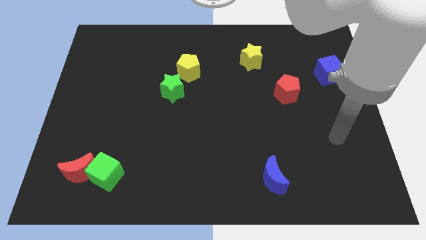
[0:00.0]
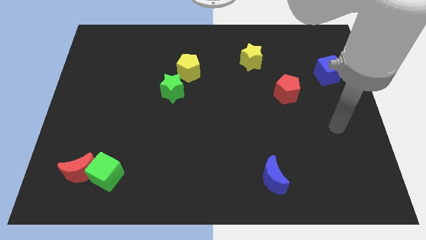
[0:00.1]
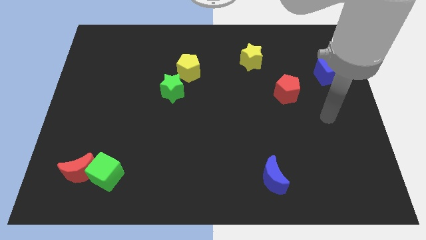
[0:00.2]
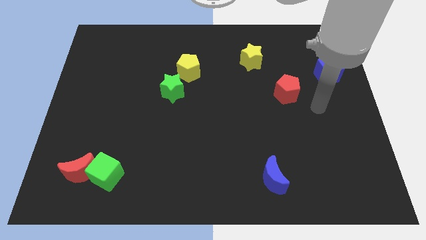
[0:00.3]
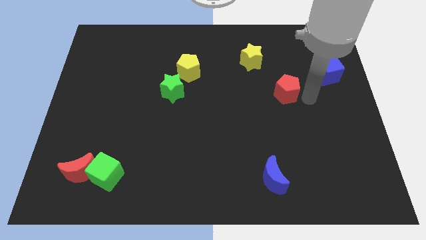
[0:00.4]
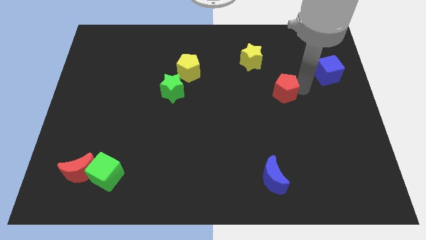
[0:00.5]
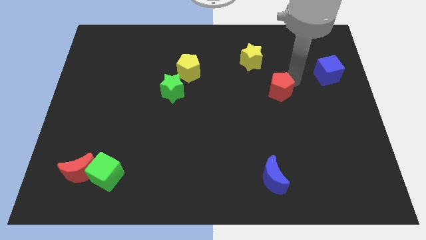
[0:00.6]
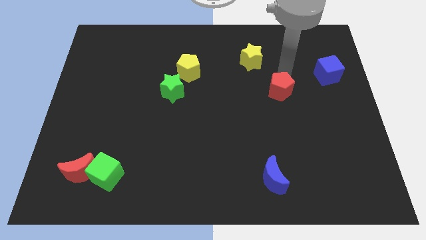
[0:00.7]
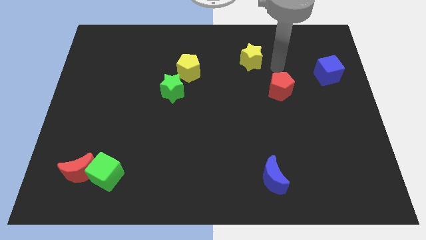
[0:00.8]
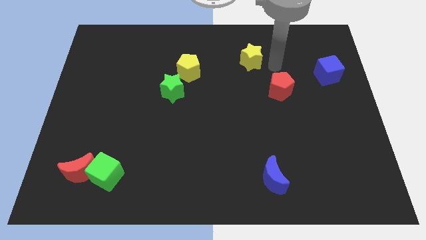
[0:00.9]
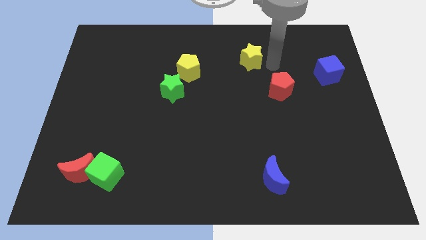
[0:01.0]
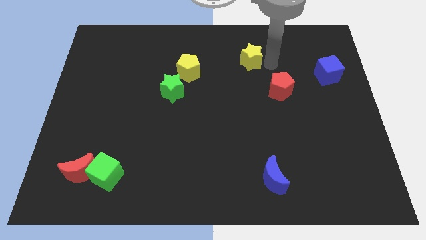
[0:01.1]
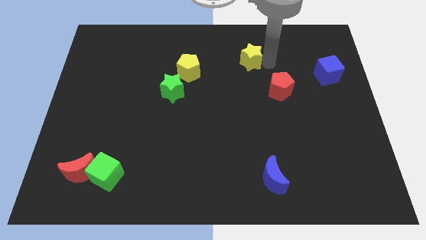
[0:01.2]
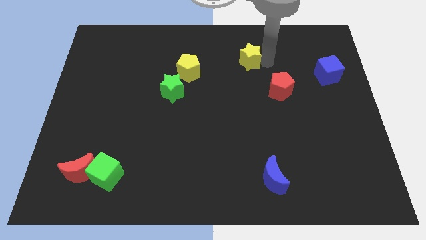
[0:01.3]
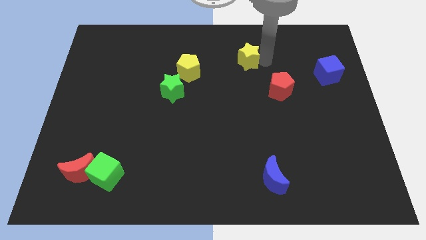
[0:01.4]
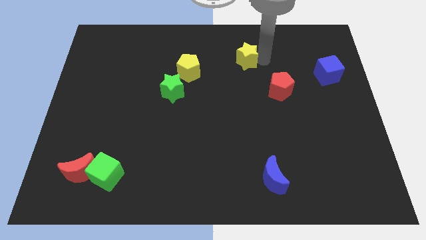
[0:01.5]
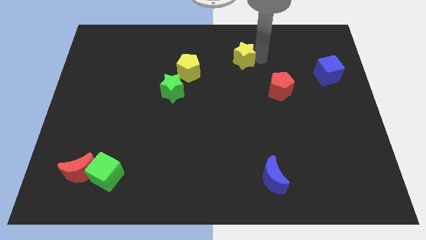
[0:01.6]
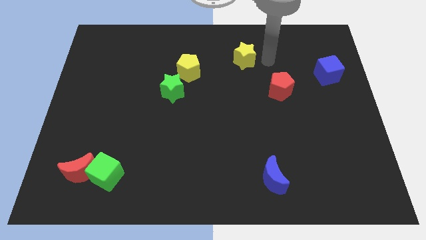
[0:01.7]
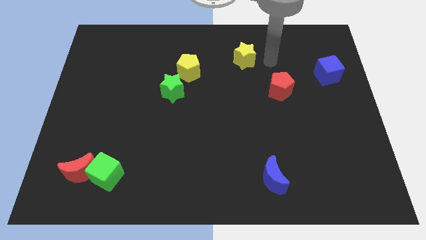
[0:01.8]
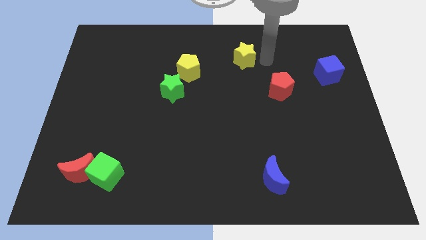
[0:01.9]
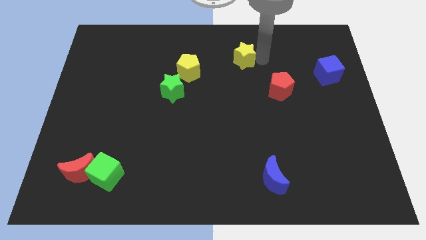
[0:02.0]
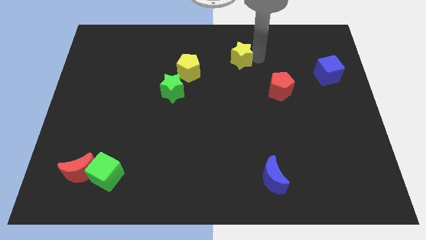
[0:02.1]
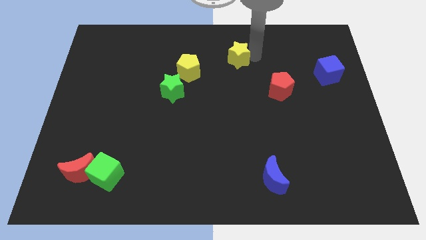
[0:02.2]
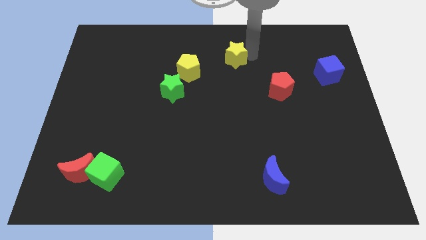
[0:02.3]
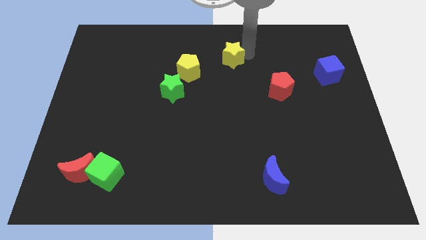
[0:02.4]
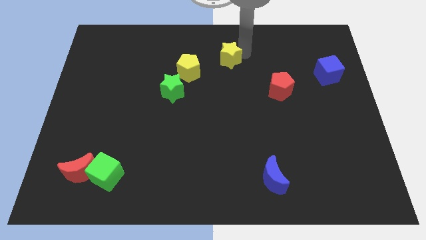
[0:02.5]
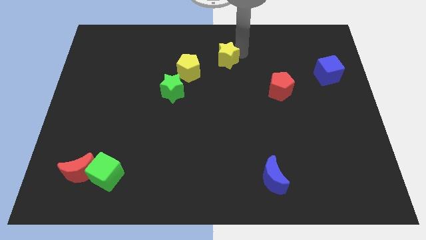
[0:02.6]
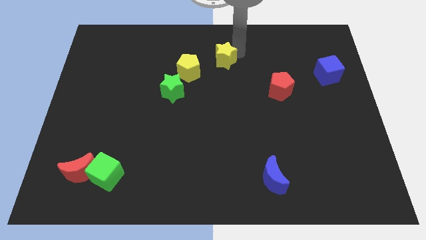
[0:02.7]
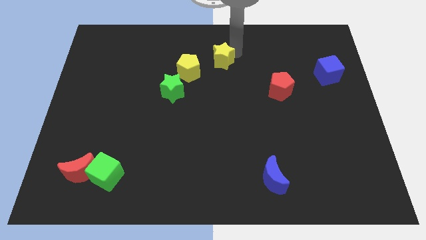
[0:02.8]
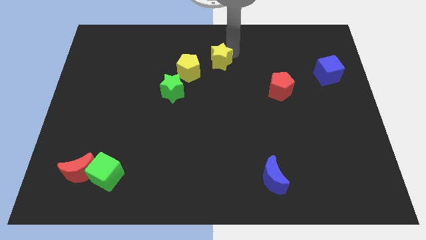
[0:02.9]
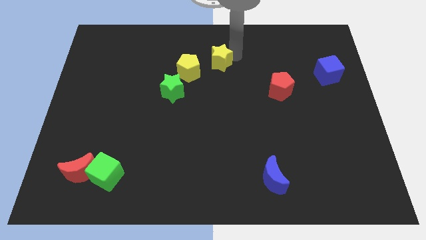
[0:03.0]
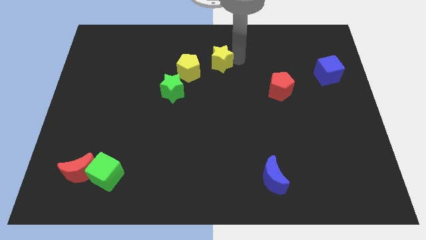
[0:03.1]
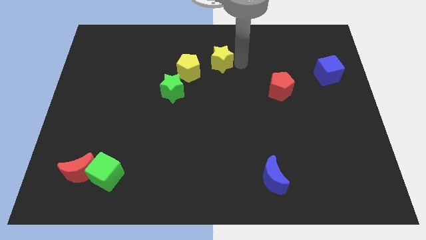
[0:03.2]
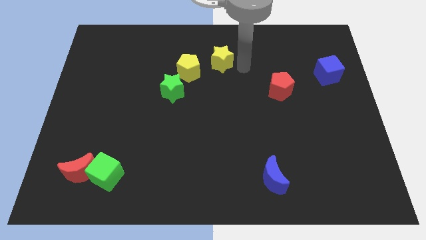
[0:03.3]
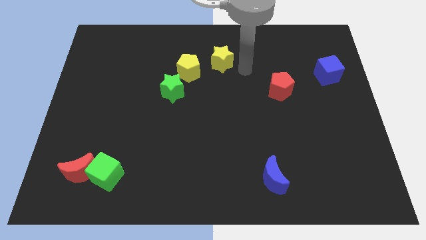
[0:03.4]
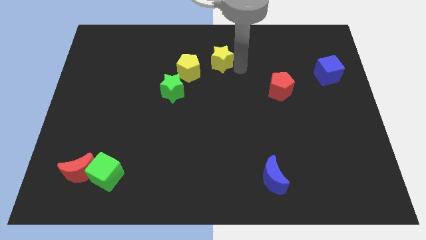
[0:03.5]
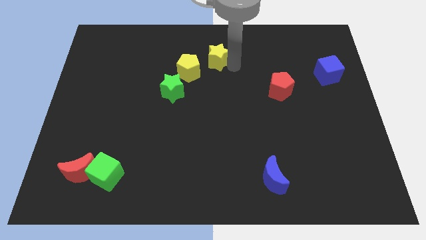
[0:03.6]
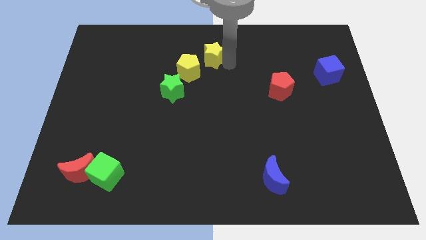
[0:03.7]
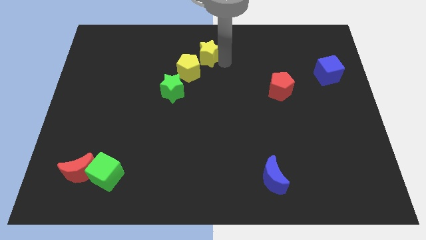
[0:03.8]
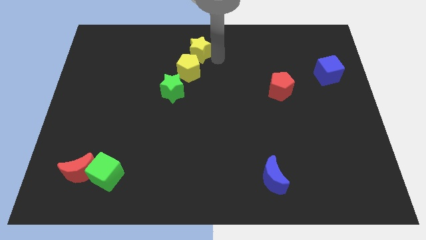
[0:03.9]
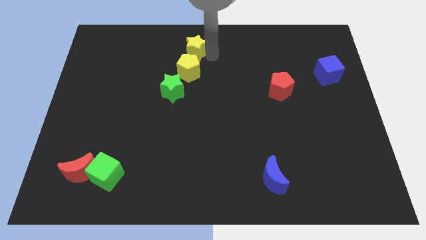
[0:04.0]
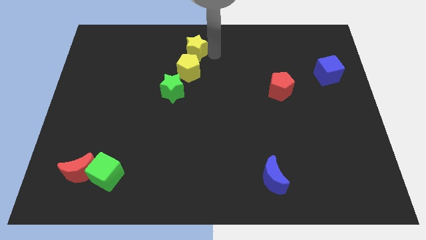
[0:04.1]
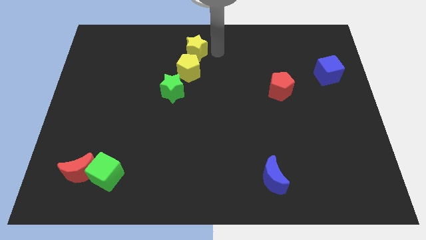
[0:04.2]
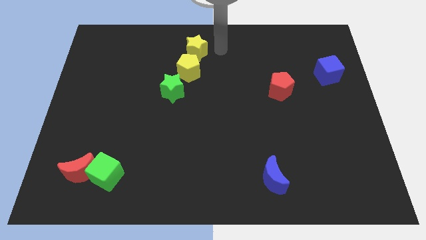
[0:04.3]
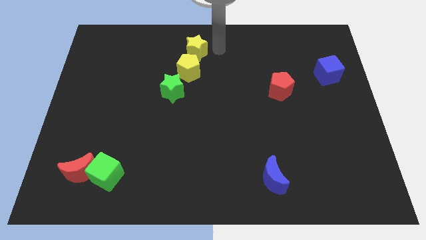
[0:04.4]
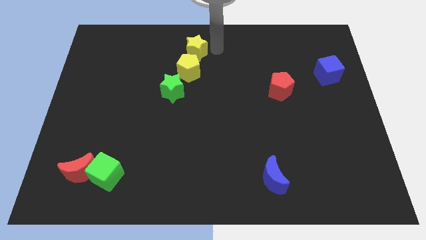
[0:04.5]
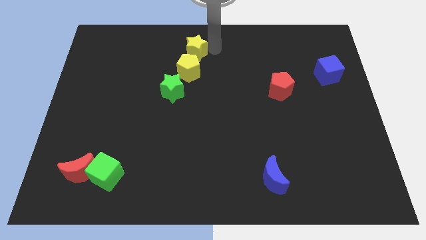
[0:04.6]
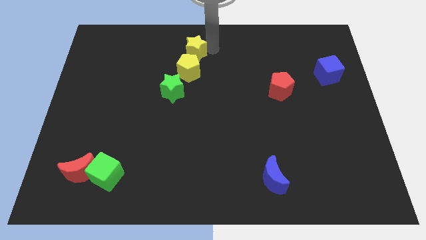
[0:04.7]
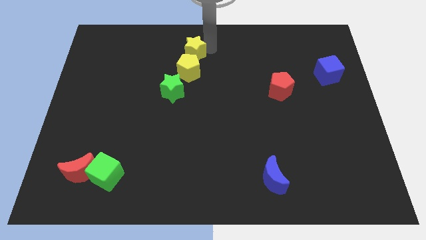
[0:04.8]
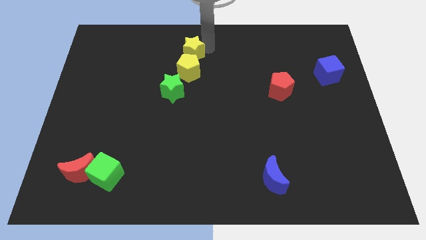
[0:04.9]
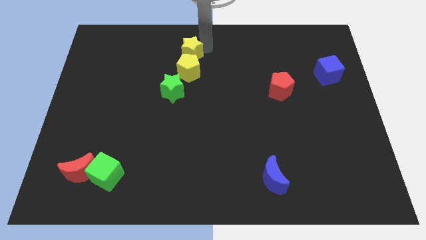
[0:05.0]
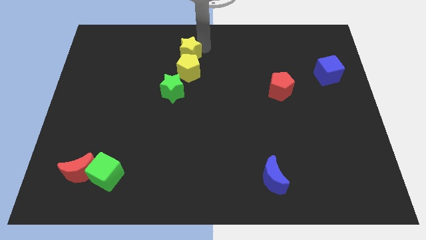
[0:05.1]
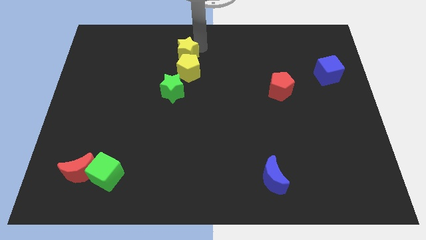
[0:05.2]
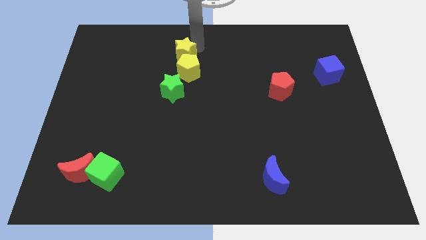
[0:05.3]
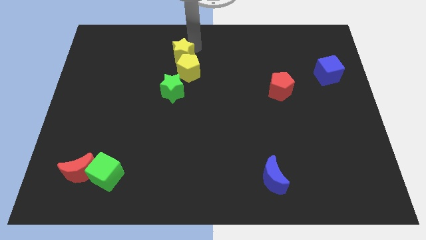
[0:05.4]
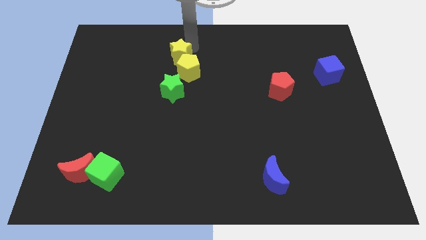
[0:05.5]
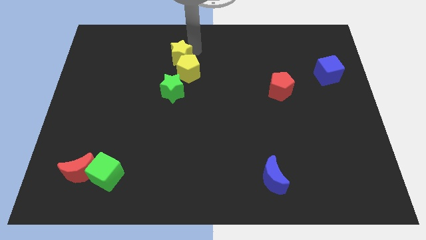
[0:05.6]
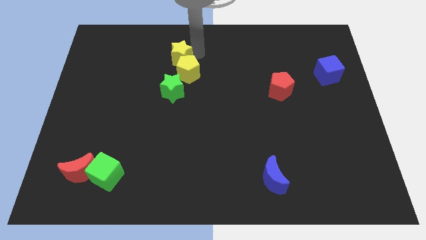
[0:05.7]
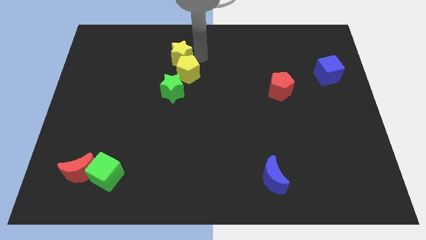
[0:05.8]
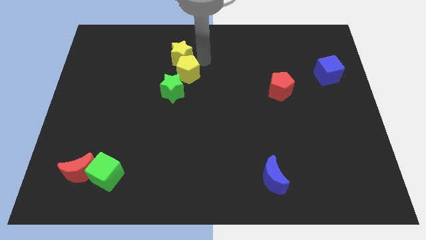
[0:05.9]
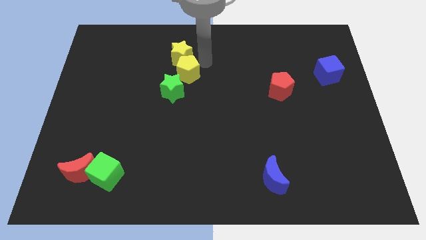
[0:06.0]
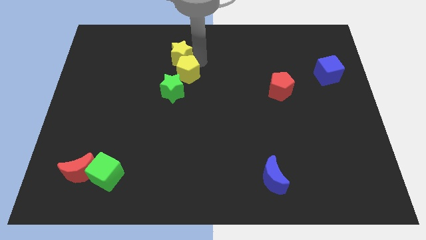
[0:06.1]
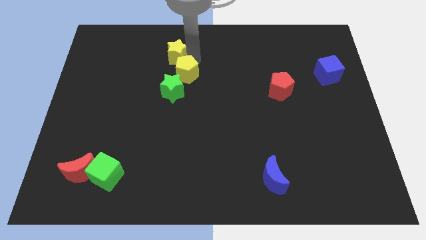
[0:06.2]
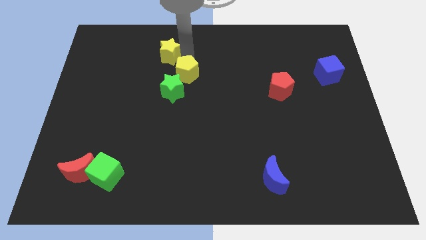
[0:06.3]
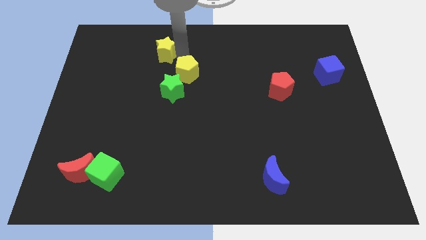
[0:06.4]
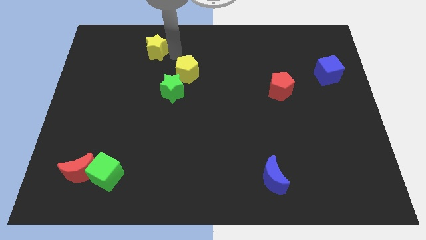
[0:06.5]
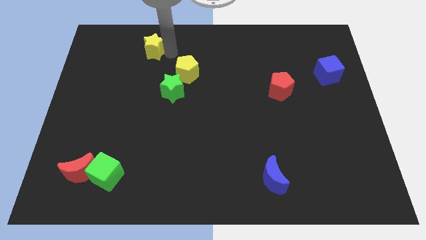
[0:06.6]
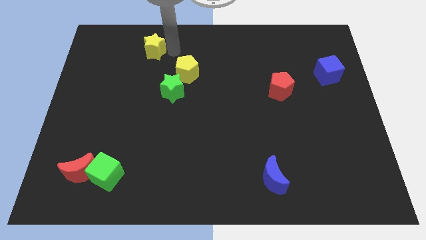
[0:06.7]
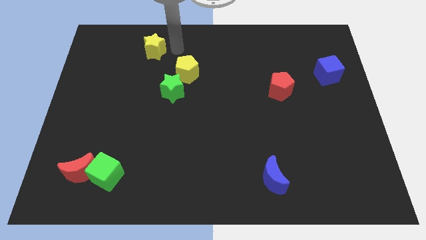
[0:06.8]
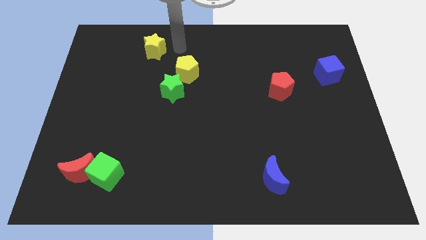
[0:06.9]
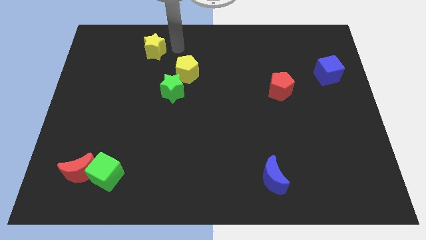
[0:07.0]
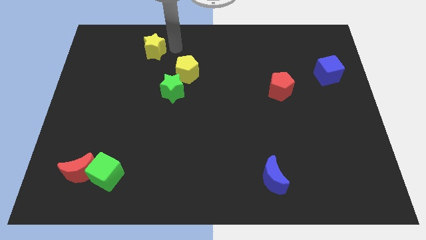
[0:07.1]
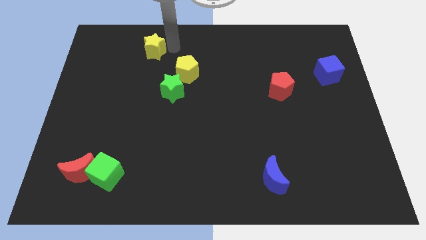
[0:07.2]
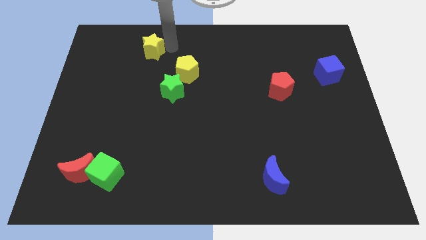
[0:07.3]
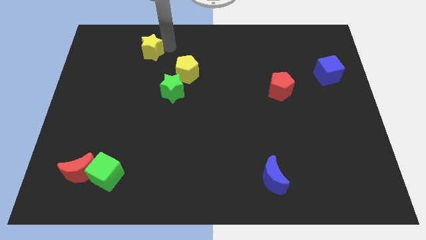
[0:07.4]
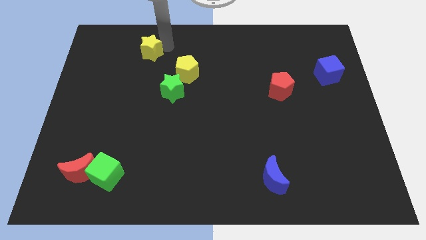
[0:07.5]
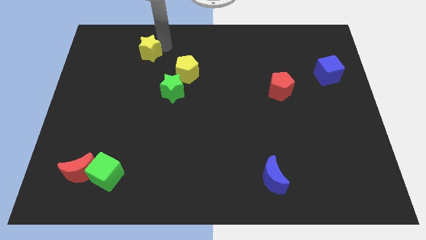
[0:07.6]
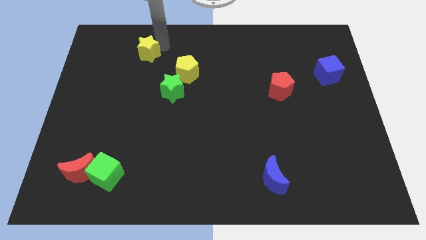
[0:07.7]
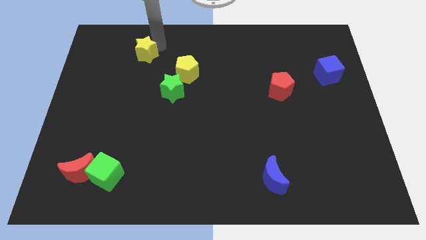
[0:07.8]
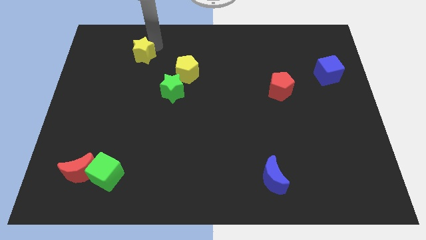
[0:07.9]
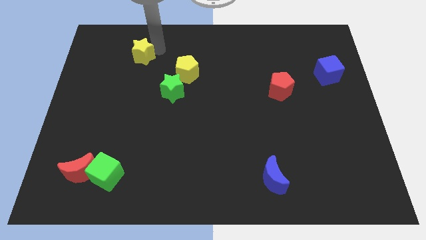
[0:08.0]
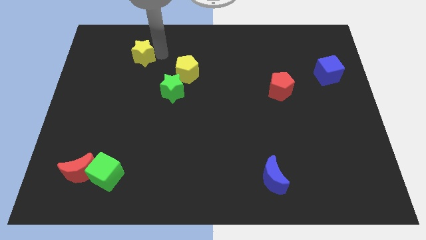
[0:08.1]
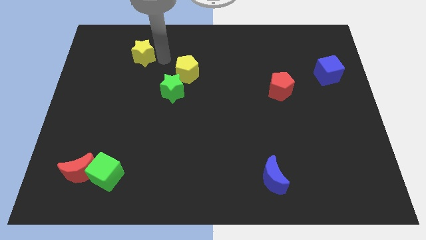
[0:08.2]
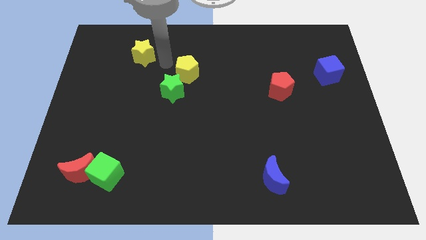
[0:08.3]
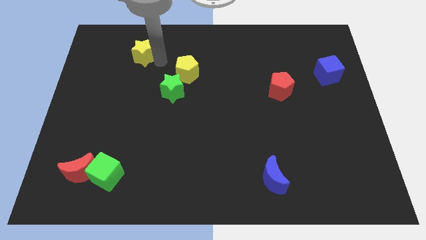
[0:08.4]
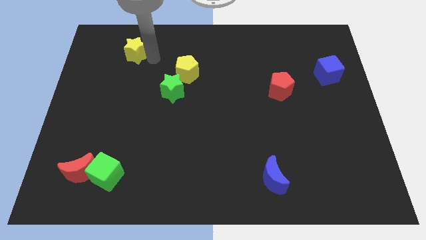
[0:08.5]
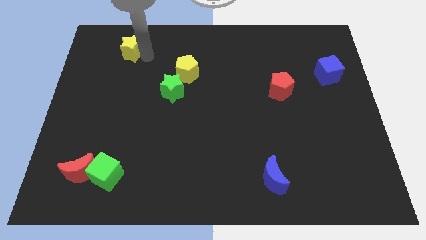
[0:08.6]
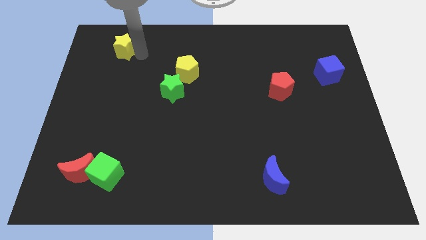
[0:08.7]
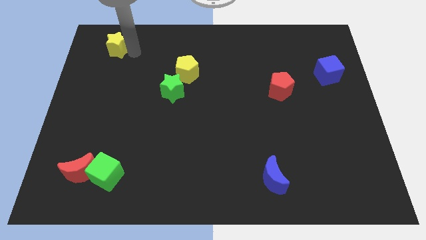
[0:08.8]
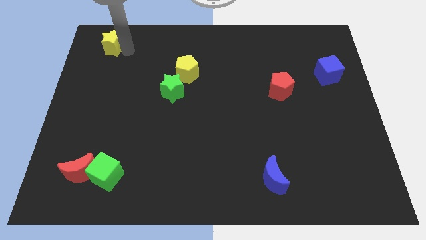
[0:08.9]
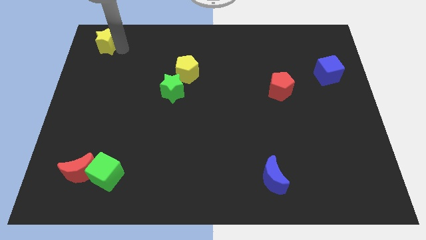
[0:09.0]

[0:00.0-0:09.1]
slide the yellow star to the top left
